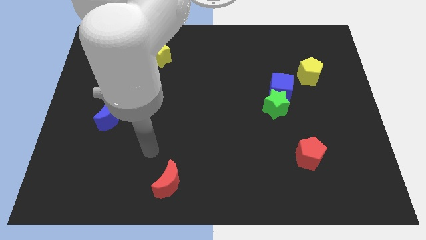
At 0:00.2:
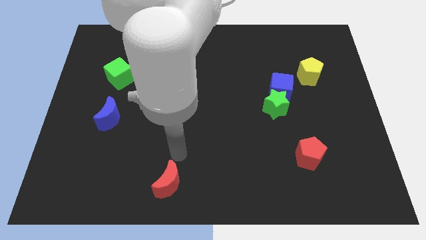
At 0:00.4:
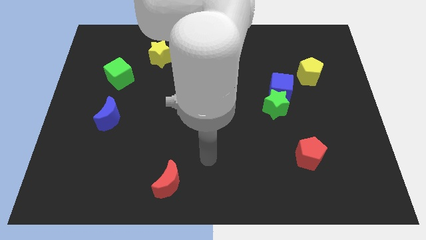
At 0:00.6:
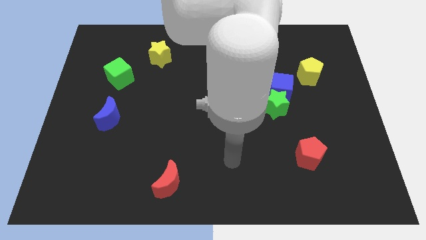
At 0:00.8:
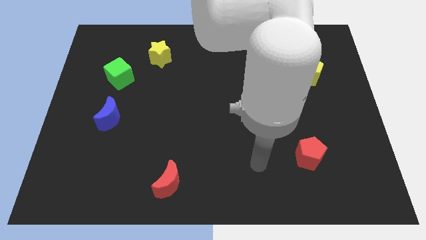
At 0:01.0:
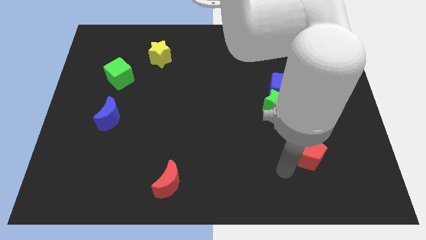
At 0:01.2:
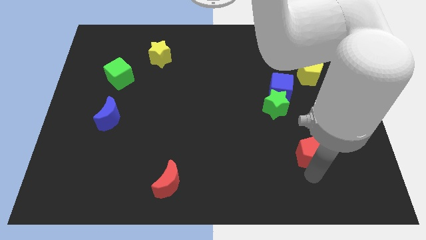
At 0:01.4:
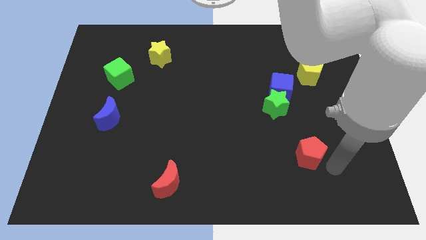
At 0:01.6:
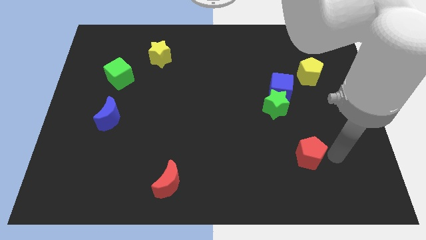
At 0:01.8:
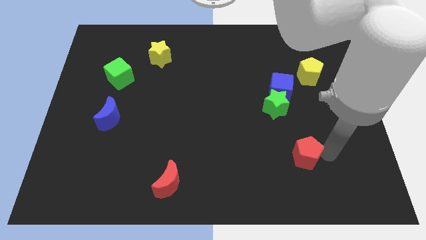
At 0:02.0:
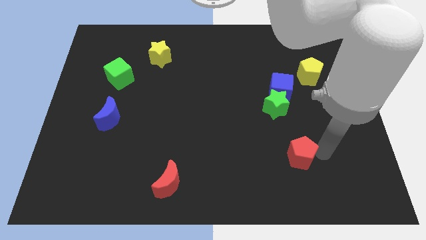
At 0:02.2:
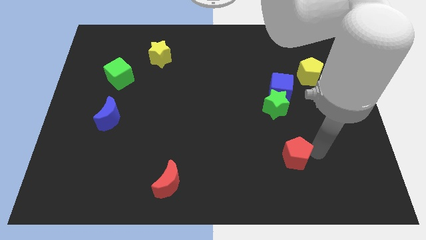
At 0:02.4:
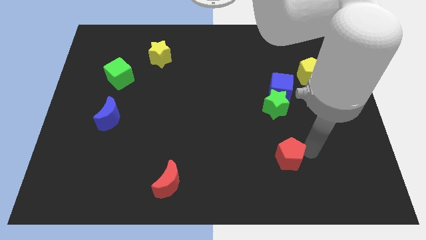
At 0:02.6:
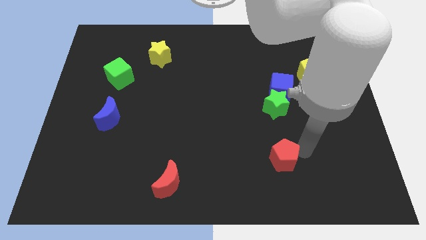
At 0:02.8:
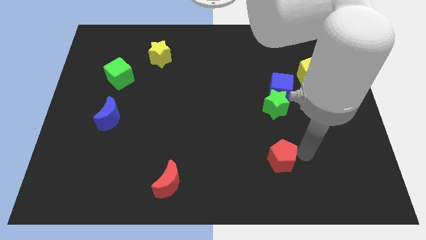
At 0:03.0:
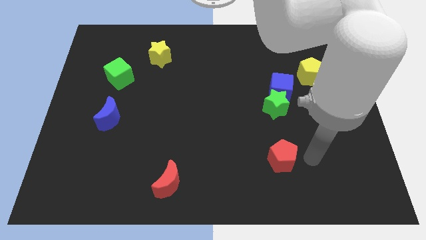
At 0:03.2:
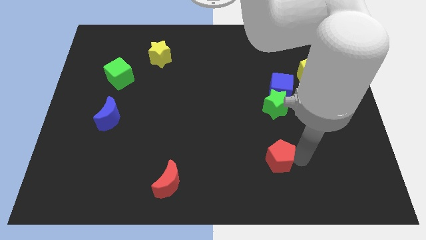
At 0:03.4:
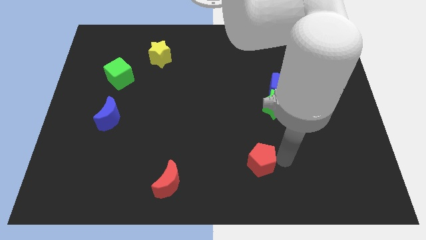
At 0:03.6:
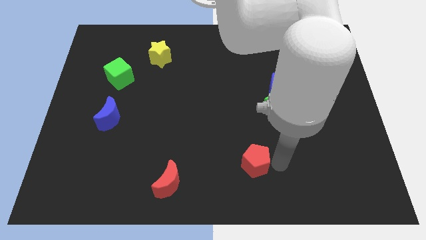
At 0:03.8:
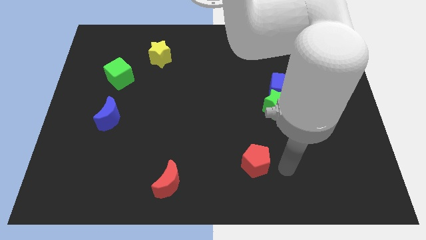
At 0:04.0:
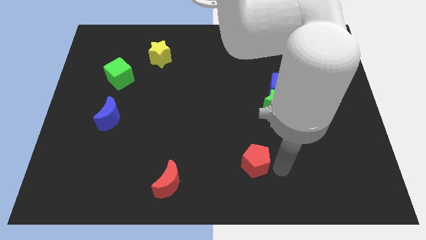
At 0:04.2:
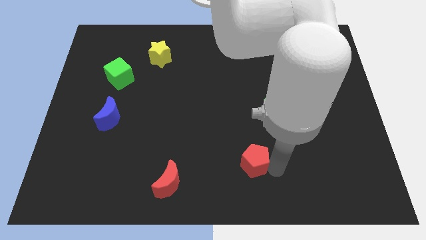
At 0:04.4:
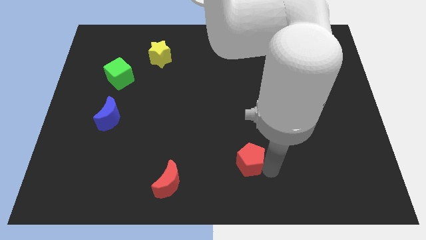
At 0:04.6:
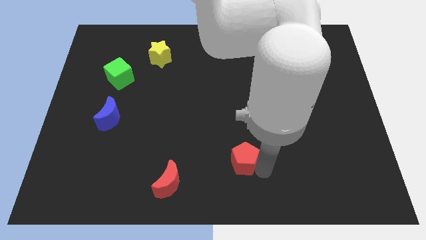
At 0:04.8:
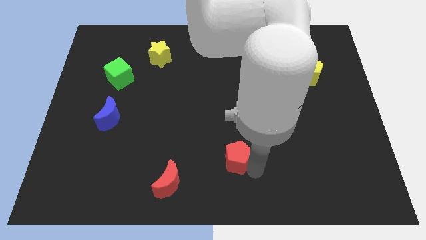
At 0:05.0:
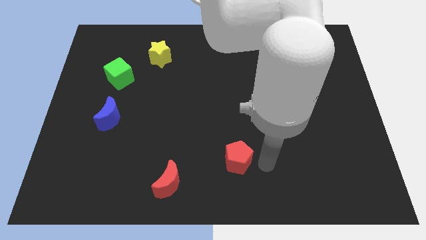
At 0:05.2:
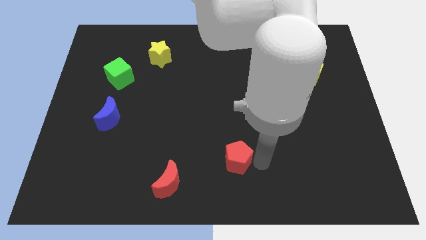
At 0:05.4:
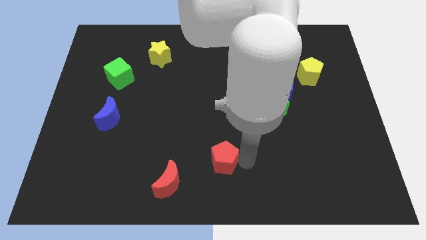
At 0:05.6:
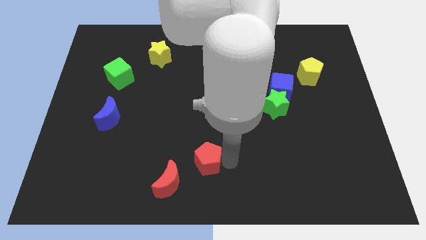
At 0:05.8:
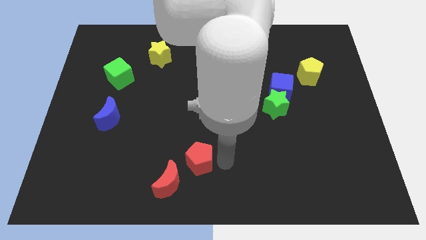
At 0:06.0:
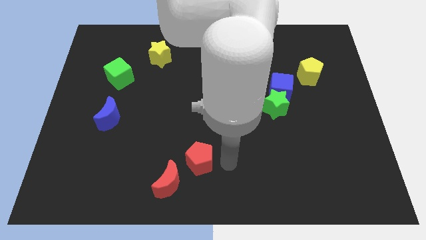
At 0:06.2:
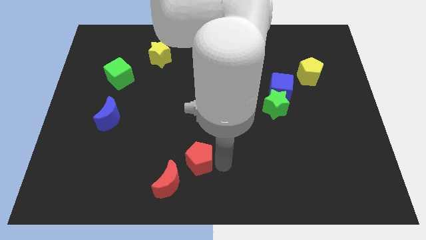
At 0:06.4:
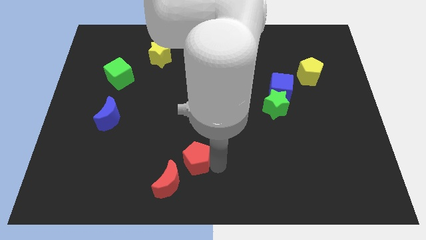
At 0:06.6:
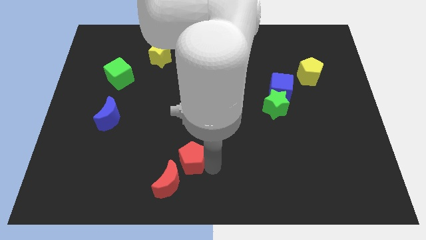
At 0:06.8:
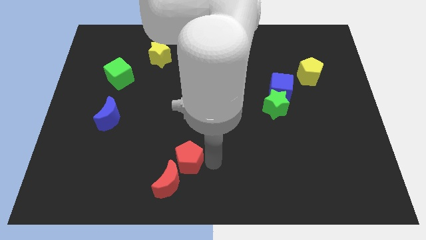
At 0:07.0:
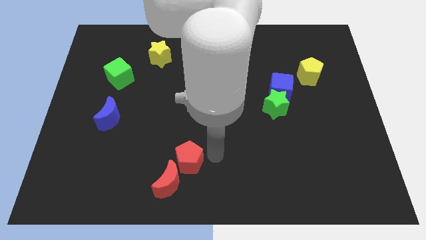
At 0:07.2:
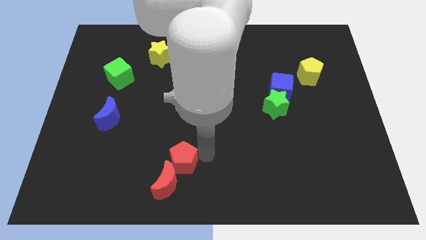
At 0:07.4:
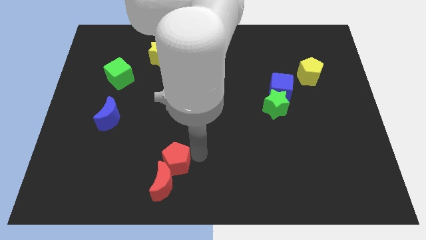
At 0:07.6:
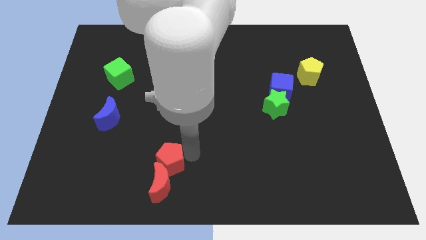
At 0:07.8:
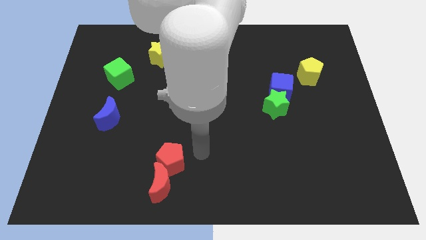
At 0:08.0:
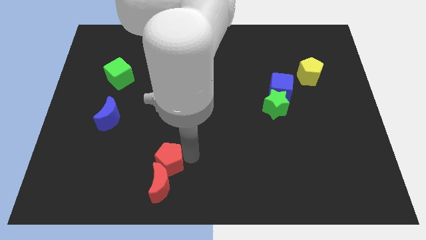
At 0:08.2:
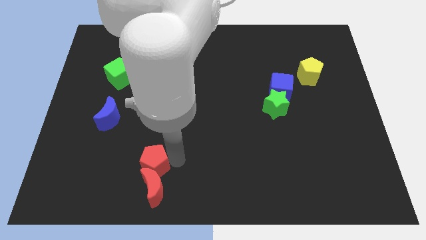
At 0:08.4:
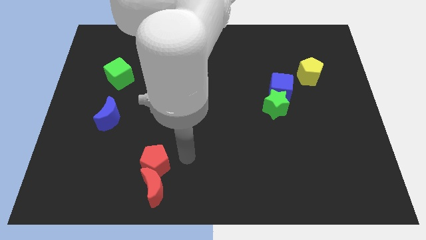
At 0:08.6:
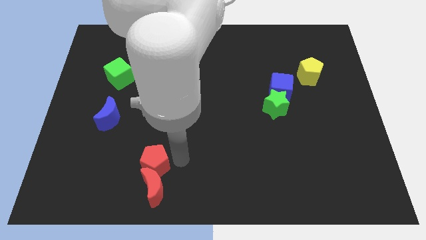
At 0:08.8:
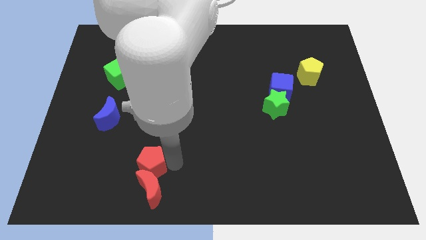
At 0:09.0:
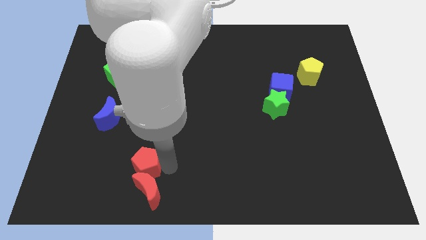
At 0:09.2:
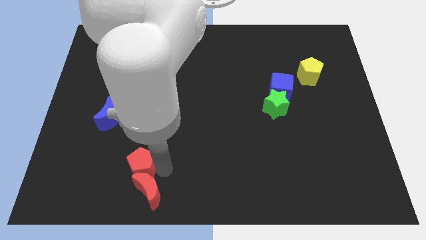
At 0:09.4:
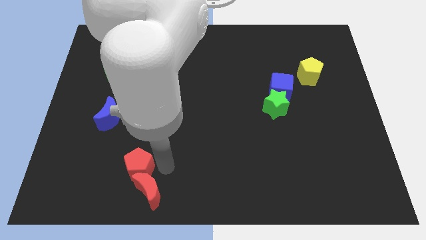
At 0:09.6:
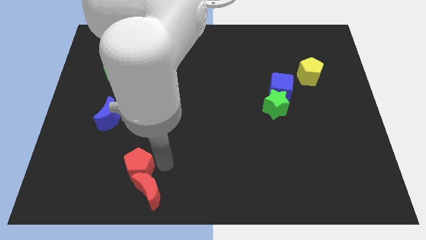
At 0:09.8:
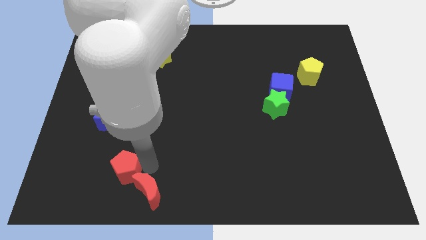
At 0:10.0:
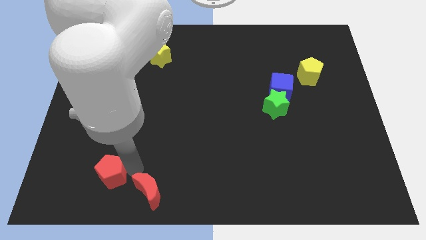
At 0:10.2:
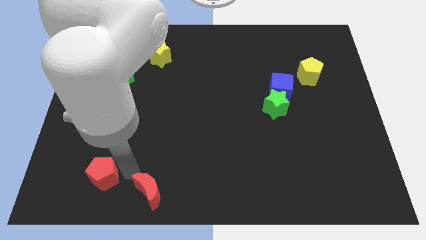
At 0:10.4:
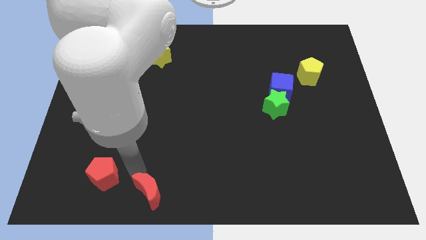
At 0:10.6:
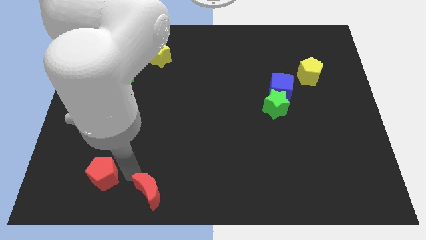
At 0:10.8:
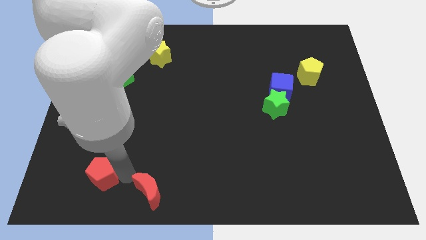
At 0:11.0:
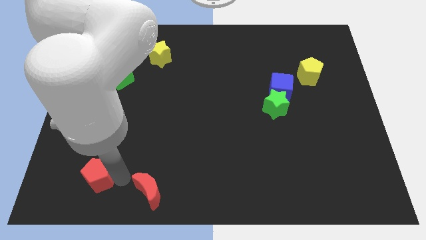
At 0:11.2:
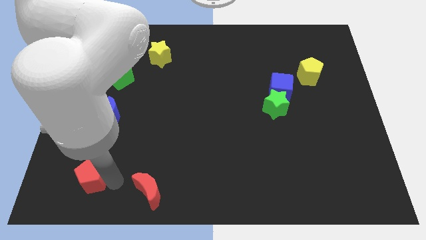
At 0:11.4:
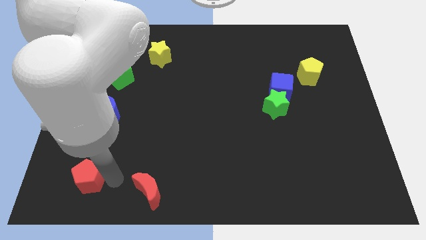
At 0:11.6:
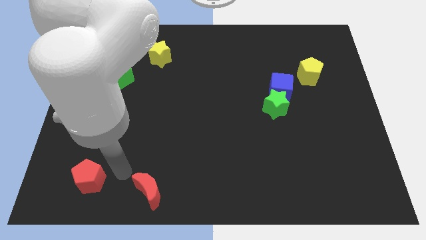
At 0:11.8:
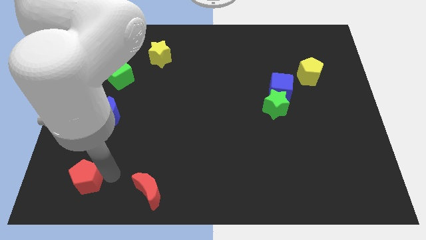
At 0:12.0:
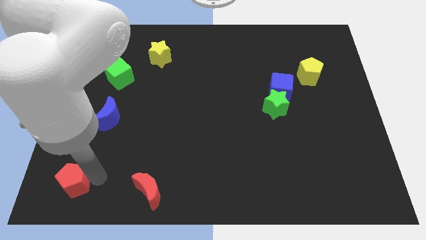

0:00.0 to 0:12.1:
put the red pentagon to the bottom left

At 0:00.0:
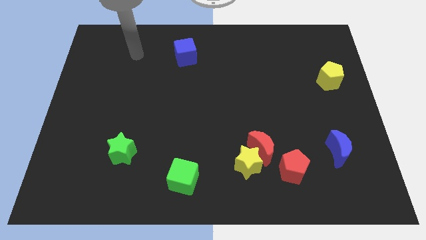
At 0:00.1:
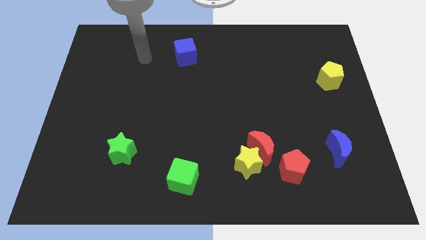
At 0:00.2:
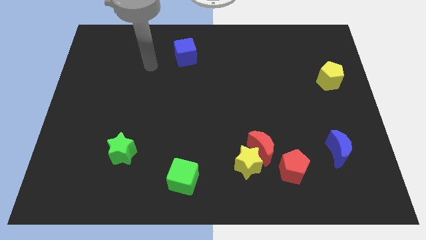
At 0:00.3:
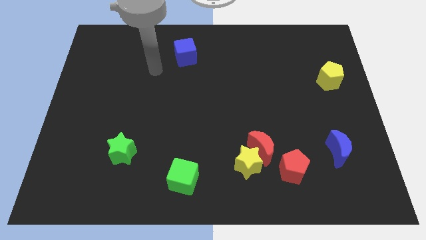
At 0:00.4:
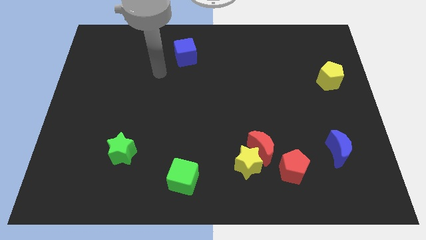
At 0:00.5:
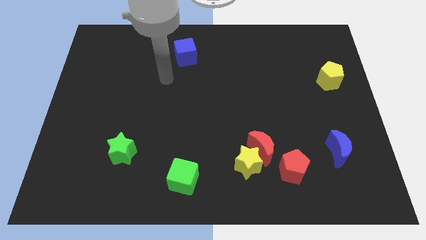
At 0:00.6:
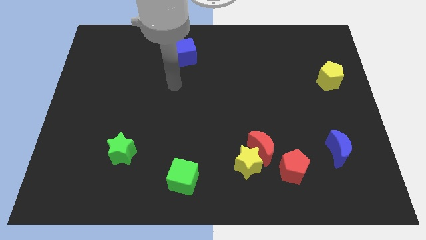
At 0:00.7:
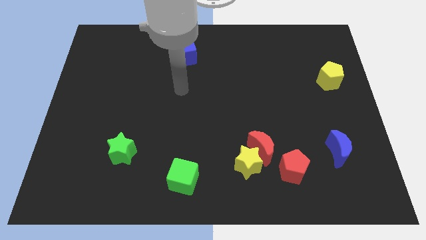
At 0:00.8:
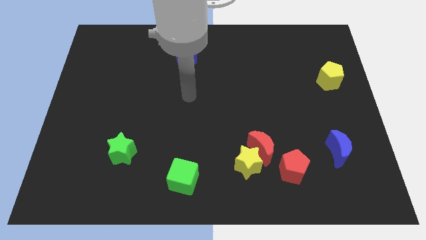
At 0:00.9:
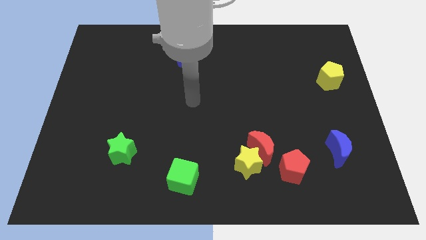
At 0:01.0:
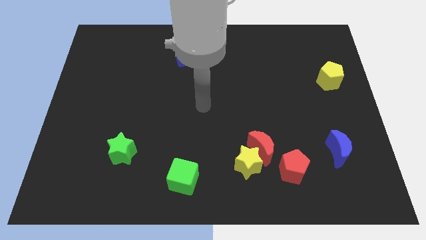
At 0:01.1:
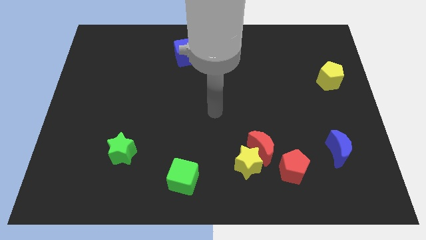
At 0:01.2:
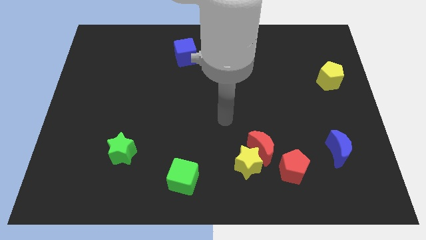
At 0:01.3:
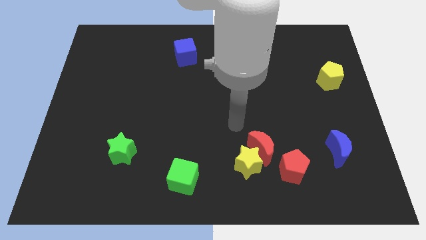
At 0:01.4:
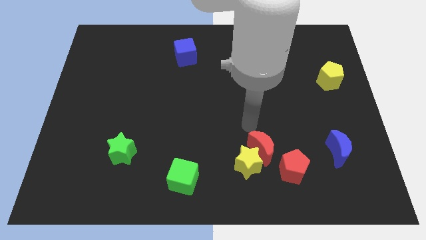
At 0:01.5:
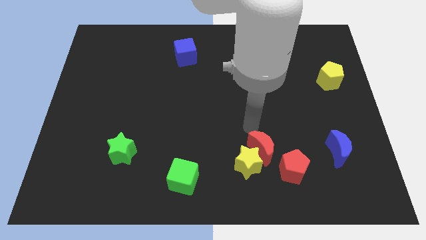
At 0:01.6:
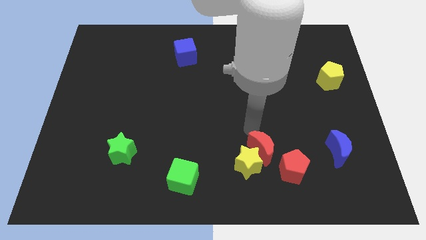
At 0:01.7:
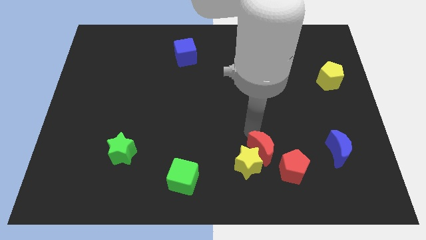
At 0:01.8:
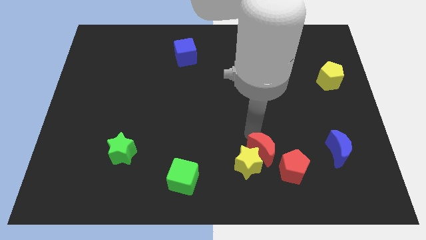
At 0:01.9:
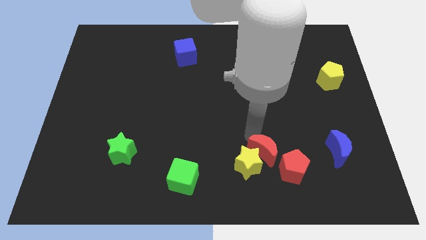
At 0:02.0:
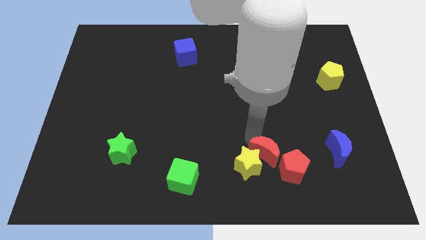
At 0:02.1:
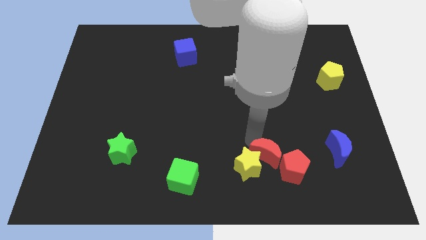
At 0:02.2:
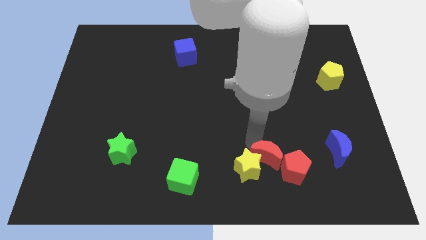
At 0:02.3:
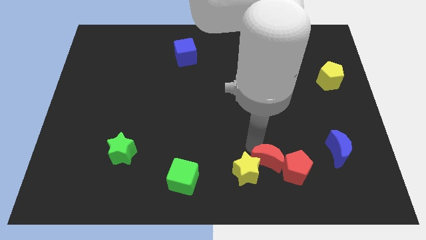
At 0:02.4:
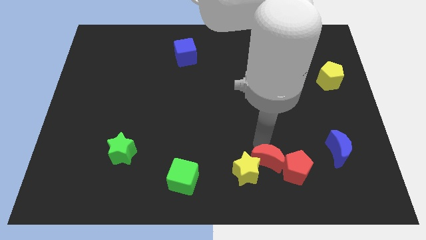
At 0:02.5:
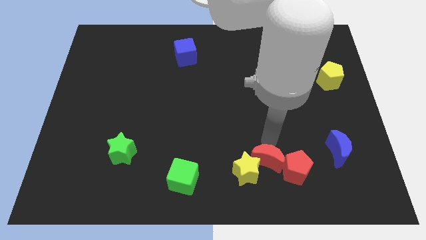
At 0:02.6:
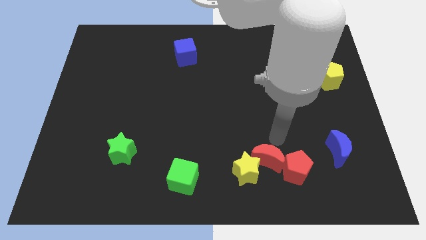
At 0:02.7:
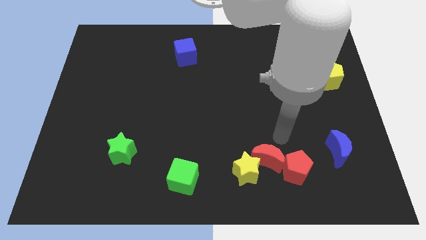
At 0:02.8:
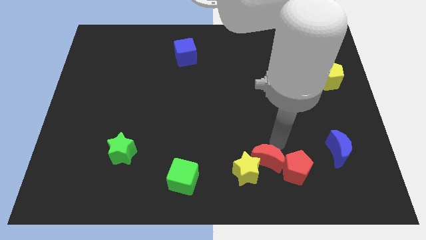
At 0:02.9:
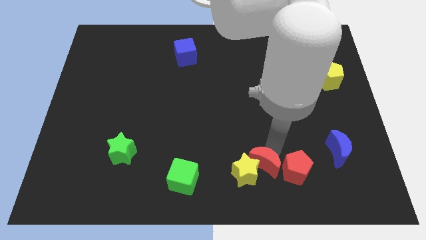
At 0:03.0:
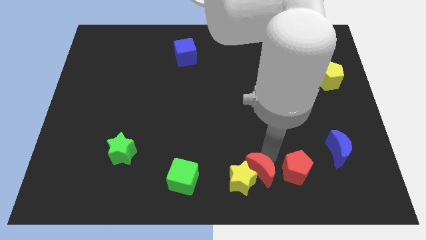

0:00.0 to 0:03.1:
push the red moon to the bottom
